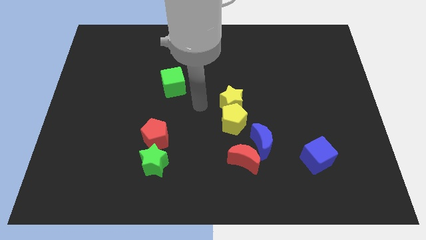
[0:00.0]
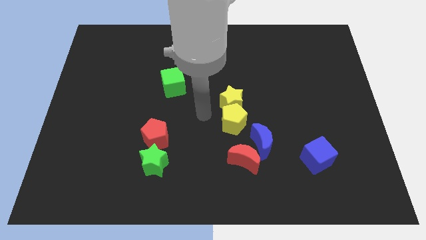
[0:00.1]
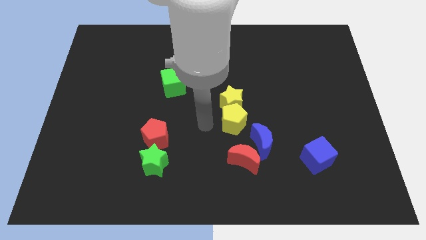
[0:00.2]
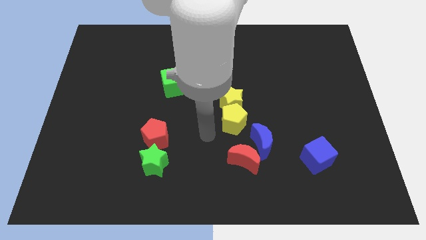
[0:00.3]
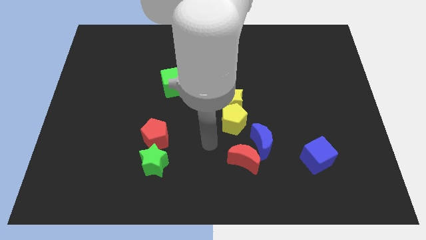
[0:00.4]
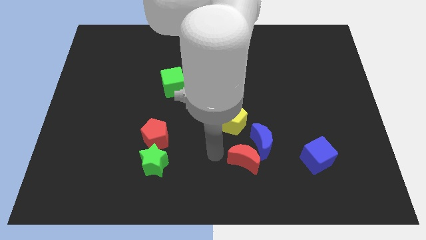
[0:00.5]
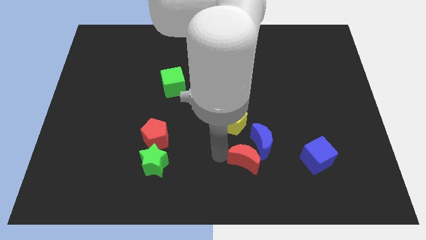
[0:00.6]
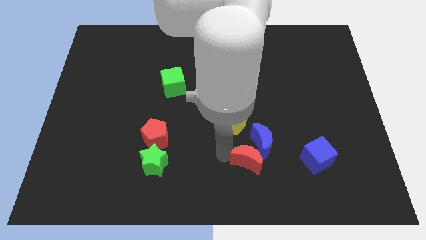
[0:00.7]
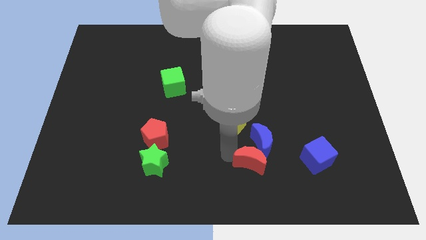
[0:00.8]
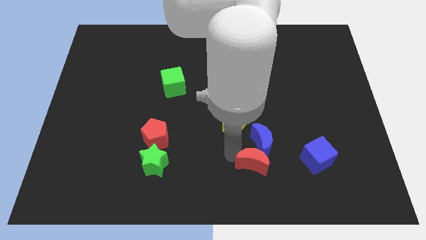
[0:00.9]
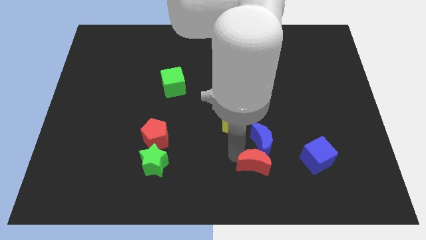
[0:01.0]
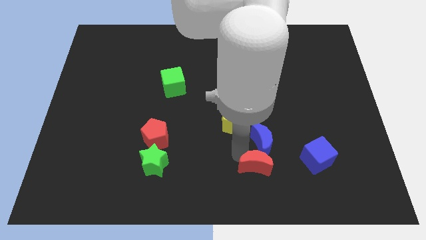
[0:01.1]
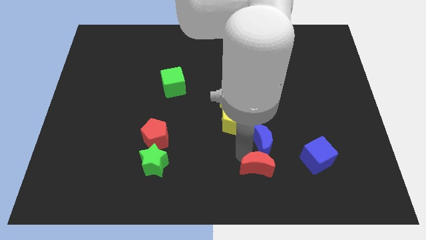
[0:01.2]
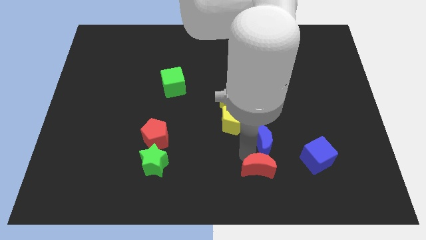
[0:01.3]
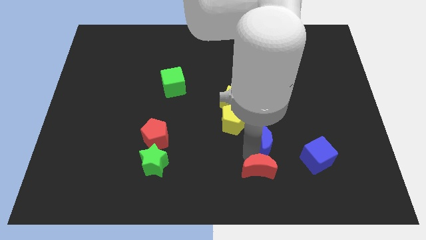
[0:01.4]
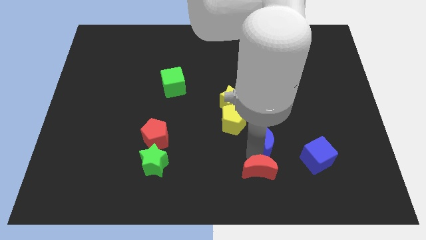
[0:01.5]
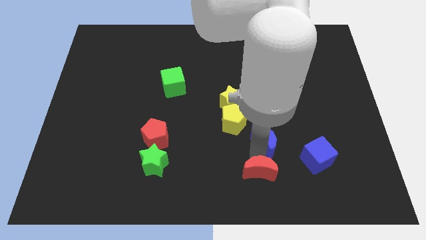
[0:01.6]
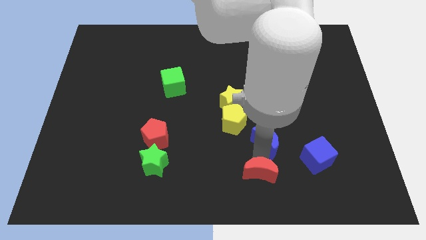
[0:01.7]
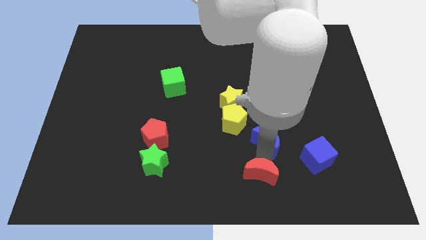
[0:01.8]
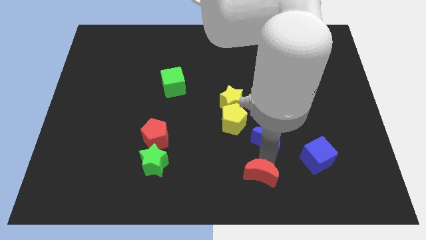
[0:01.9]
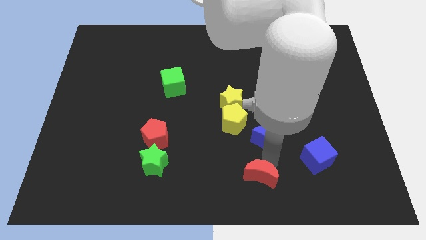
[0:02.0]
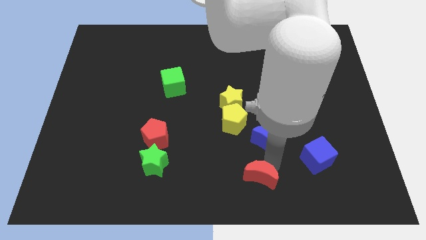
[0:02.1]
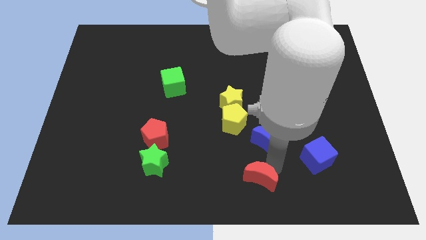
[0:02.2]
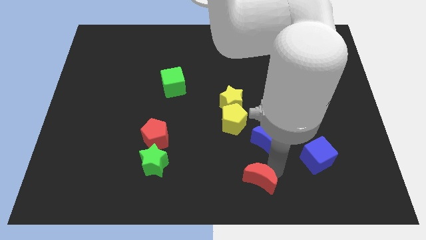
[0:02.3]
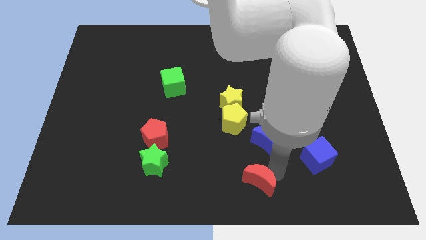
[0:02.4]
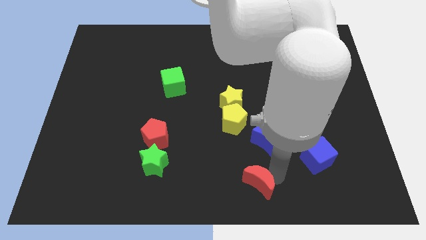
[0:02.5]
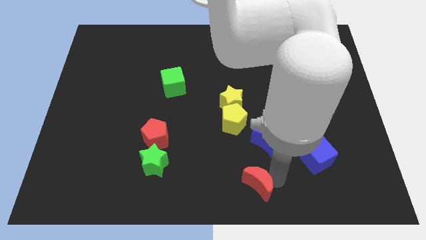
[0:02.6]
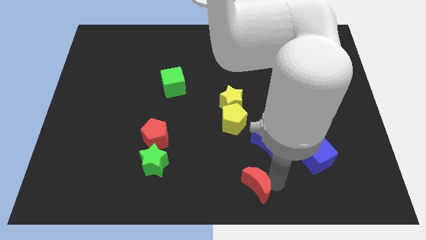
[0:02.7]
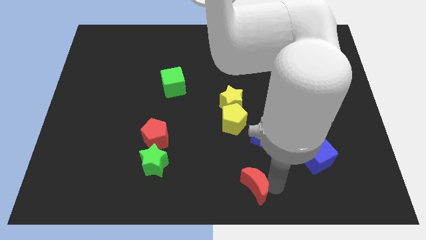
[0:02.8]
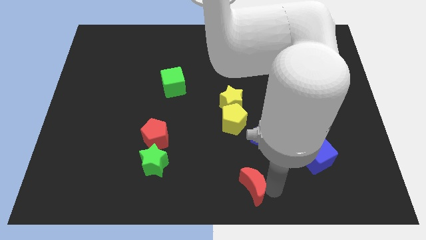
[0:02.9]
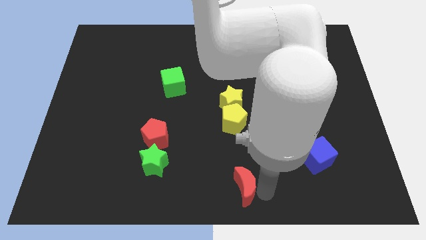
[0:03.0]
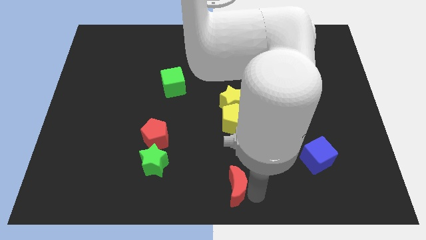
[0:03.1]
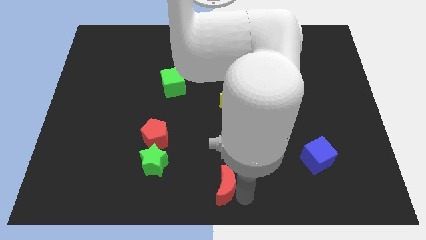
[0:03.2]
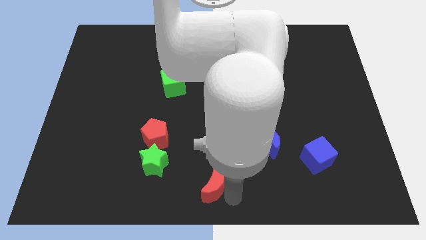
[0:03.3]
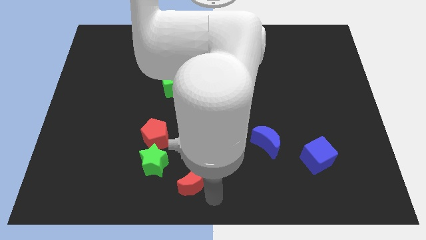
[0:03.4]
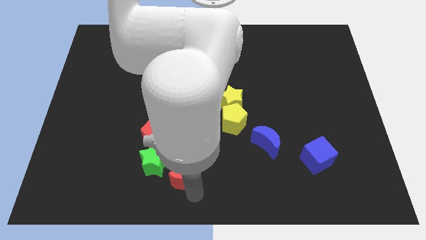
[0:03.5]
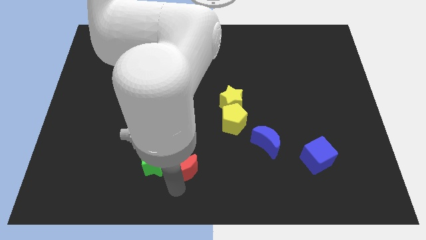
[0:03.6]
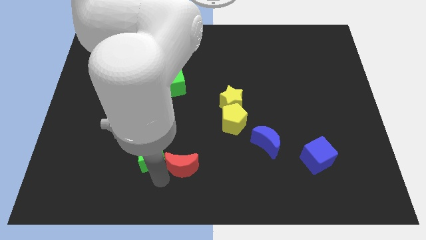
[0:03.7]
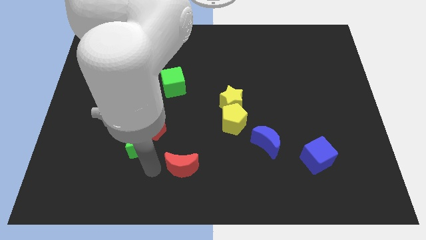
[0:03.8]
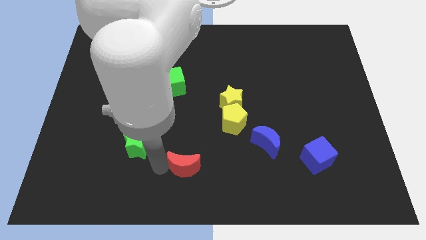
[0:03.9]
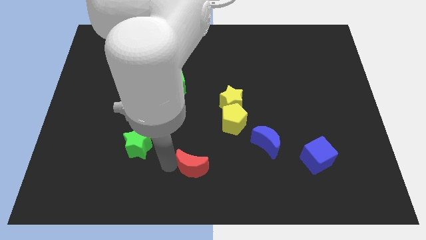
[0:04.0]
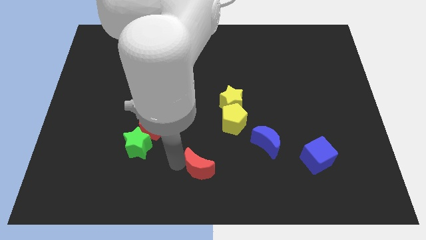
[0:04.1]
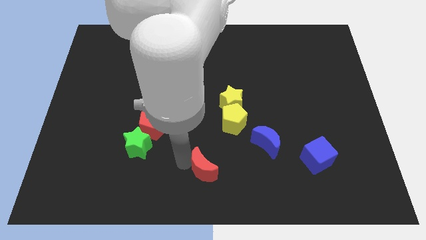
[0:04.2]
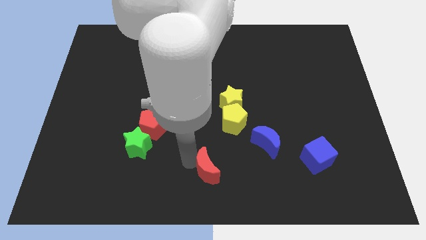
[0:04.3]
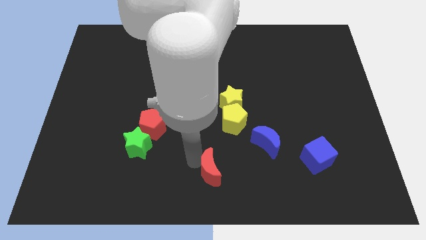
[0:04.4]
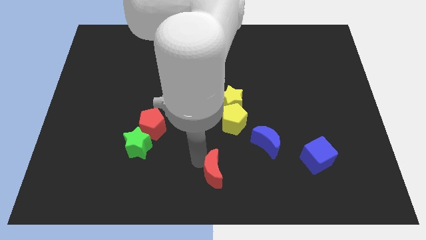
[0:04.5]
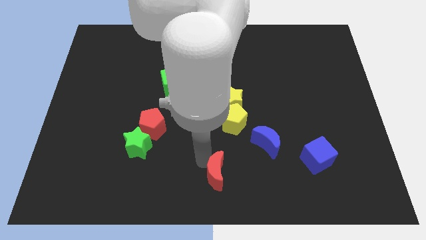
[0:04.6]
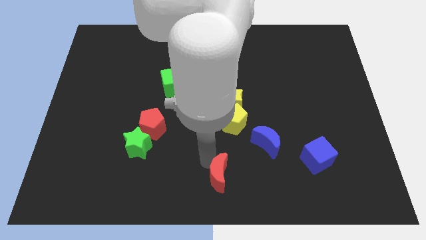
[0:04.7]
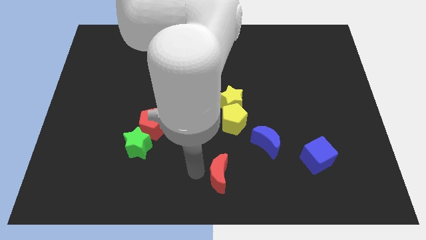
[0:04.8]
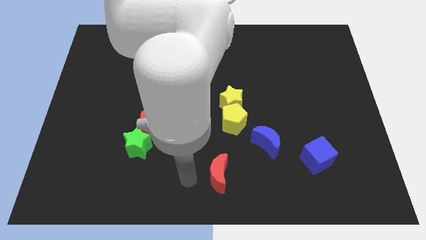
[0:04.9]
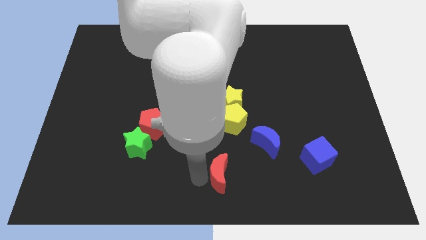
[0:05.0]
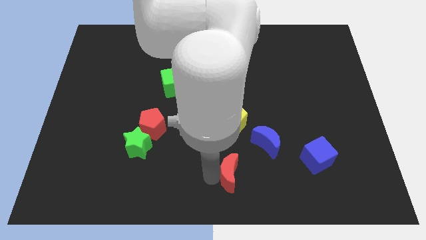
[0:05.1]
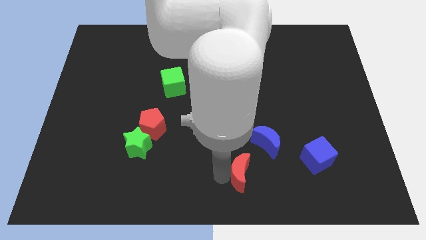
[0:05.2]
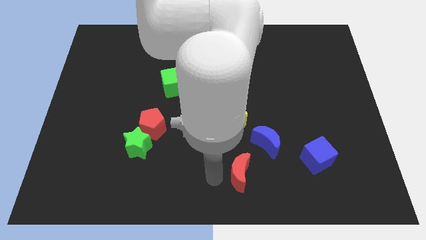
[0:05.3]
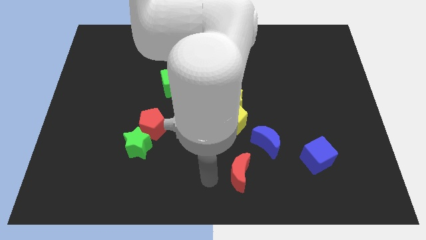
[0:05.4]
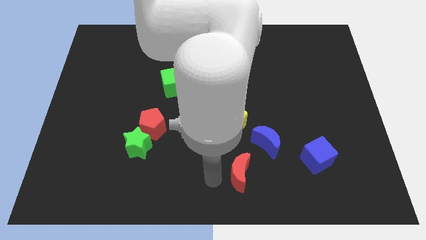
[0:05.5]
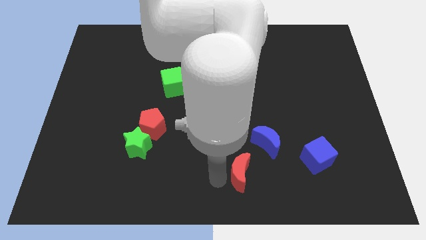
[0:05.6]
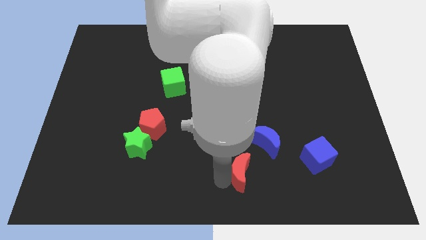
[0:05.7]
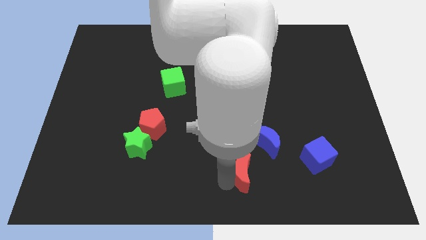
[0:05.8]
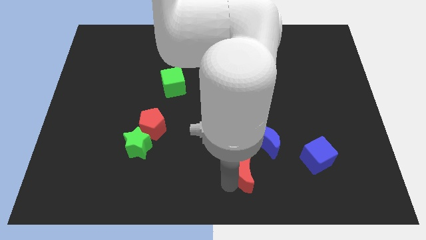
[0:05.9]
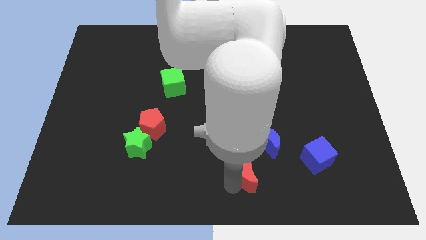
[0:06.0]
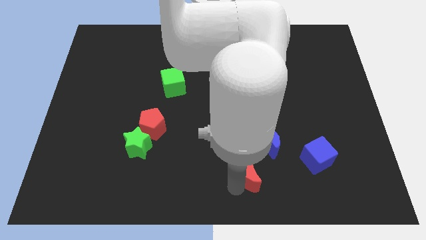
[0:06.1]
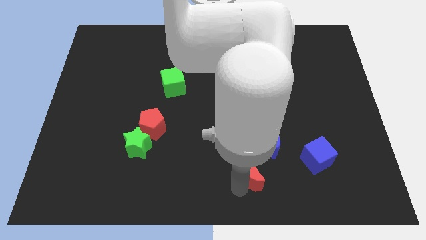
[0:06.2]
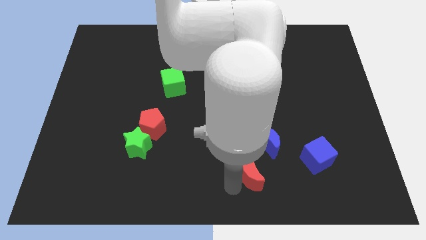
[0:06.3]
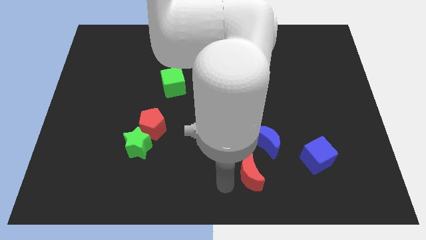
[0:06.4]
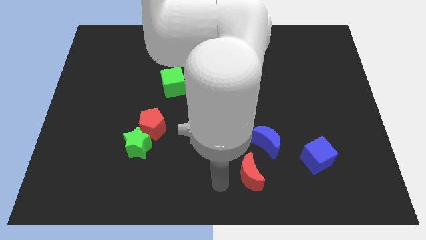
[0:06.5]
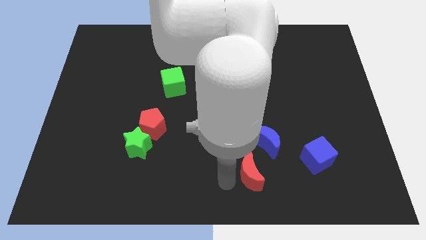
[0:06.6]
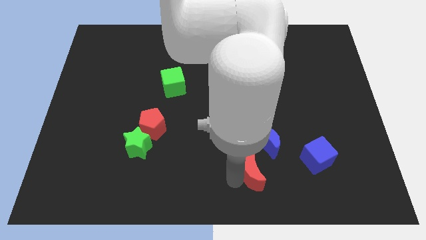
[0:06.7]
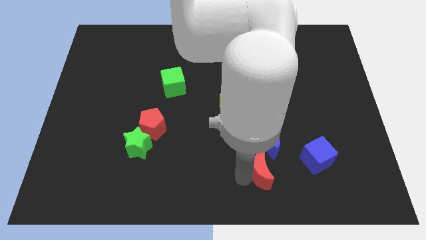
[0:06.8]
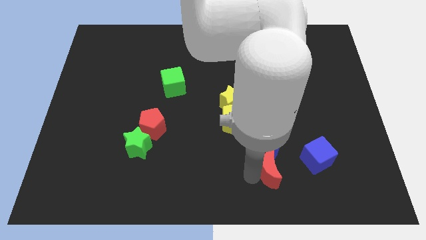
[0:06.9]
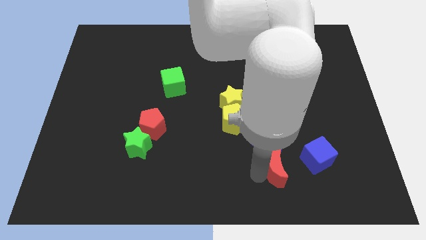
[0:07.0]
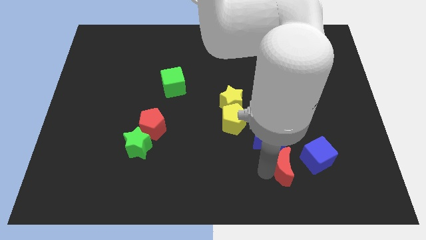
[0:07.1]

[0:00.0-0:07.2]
push the red moon a little bit right

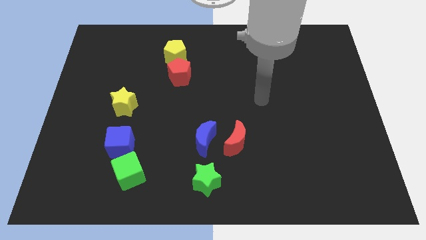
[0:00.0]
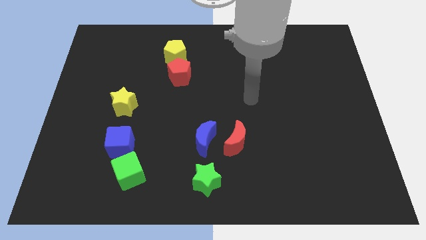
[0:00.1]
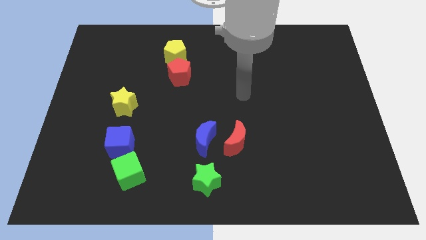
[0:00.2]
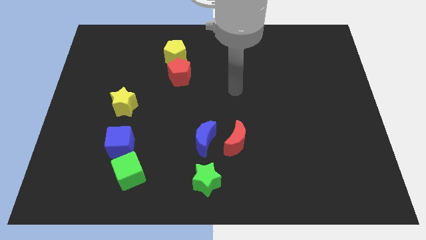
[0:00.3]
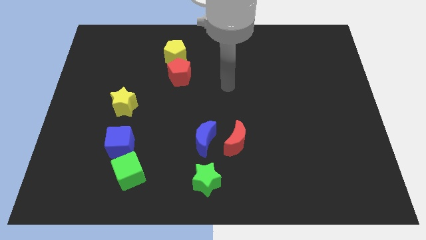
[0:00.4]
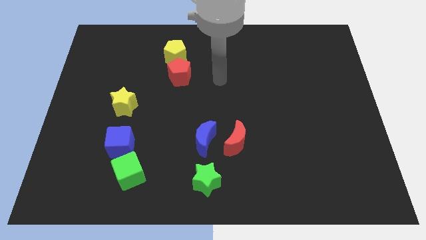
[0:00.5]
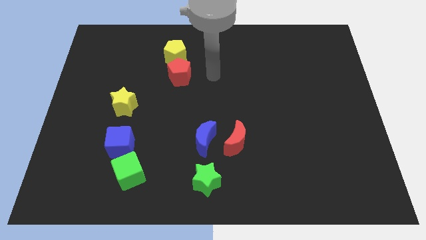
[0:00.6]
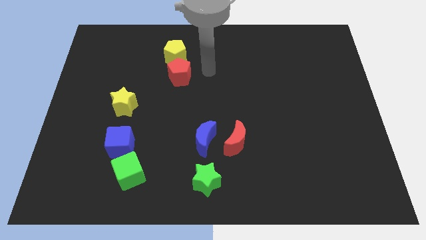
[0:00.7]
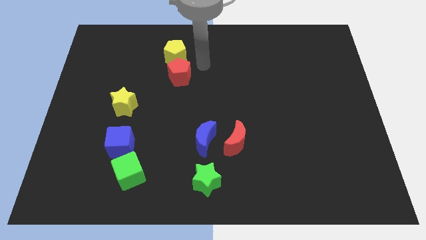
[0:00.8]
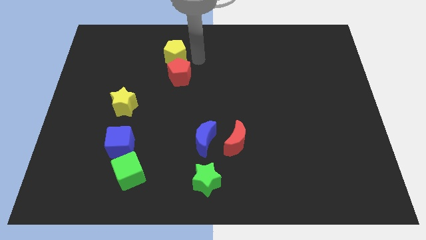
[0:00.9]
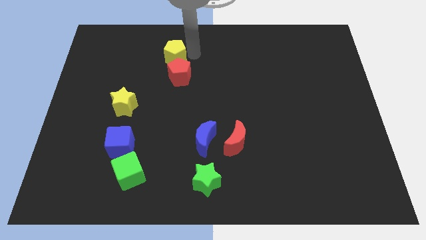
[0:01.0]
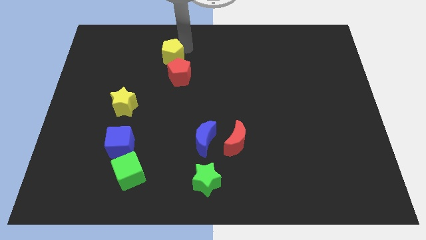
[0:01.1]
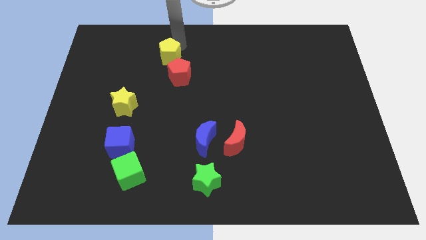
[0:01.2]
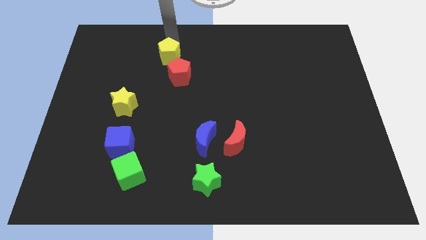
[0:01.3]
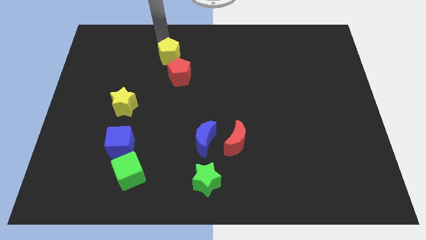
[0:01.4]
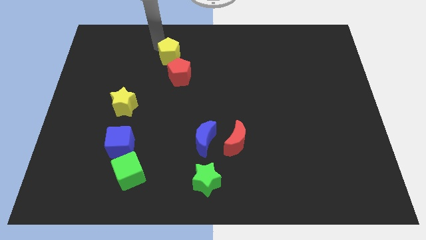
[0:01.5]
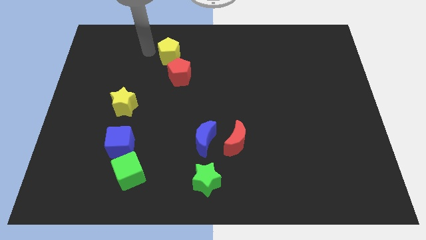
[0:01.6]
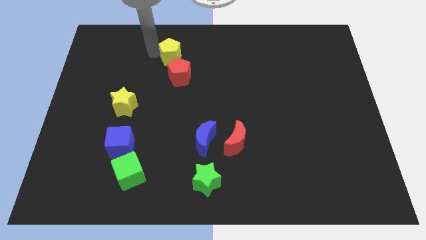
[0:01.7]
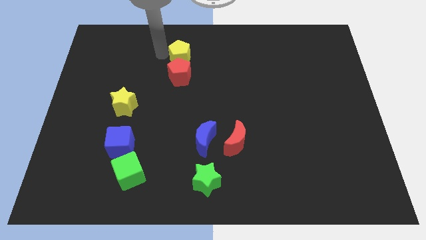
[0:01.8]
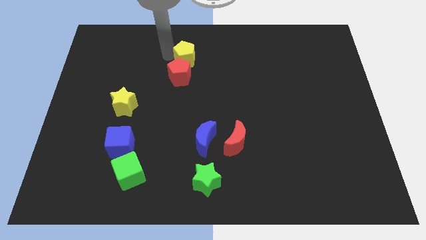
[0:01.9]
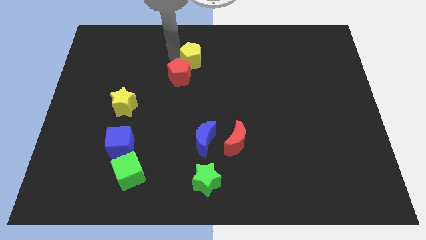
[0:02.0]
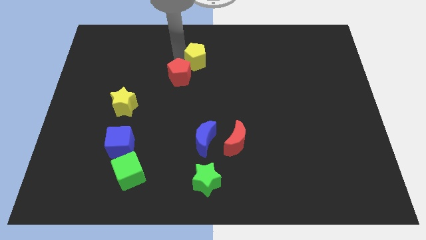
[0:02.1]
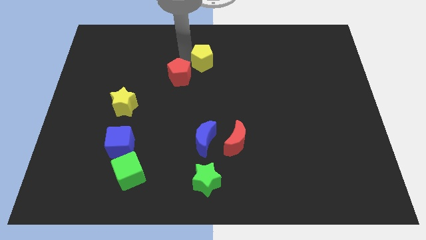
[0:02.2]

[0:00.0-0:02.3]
move the yellow pentagon a bit right
